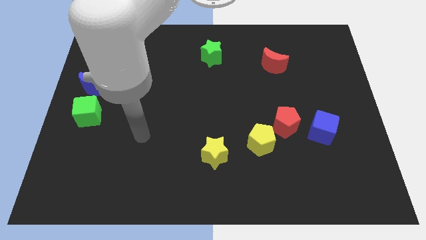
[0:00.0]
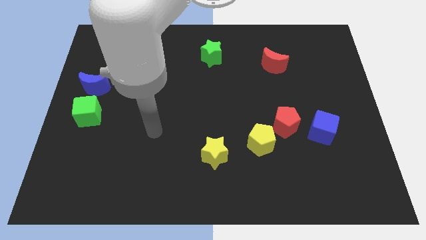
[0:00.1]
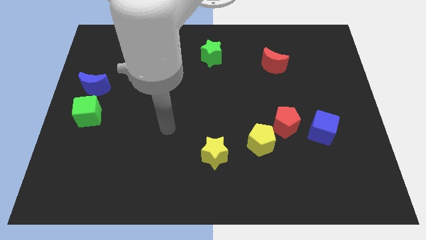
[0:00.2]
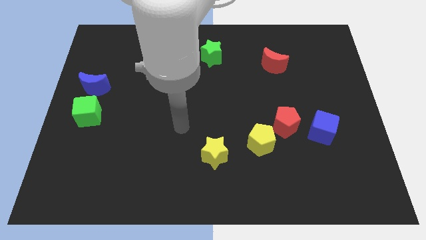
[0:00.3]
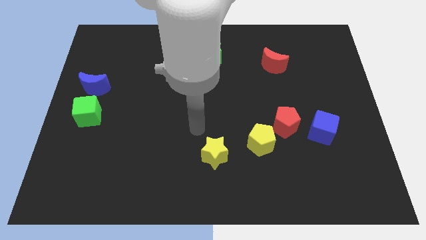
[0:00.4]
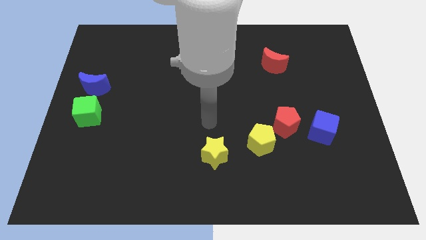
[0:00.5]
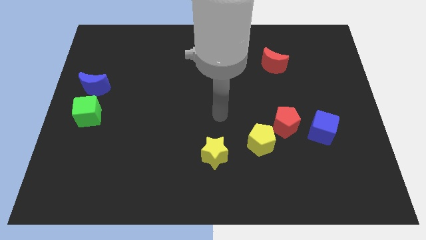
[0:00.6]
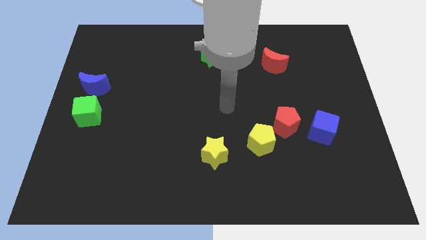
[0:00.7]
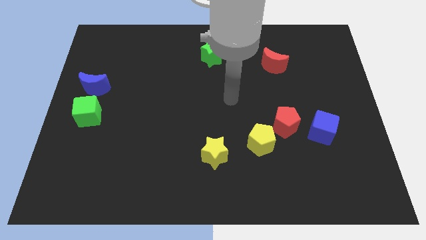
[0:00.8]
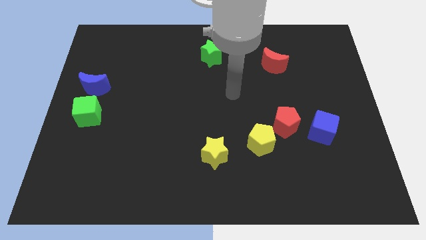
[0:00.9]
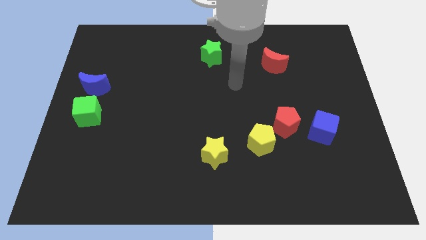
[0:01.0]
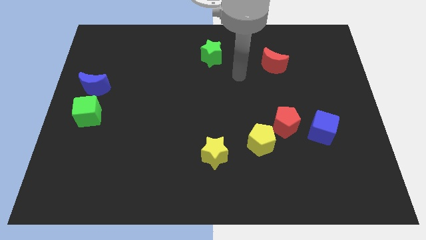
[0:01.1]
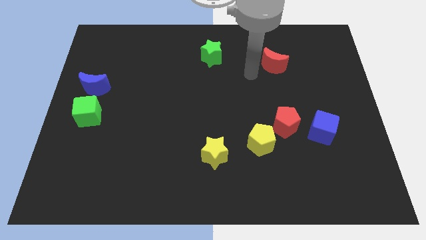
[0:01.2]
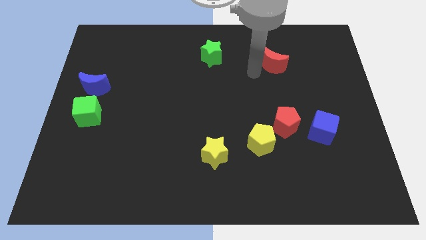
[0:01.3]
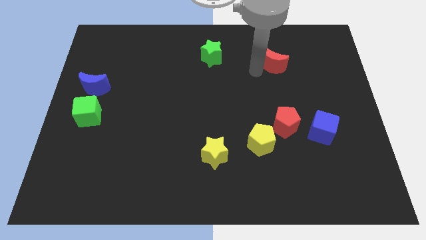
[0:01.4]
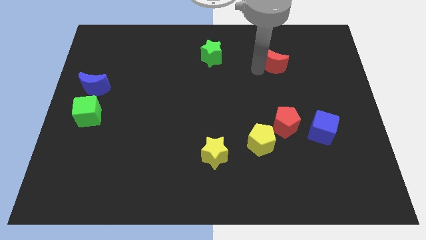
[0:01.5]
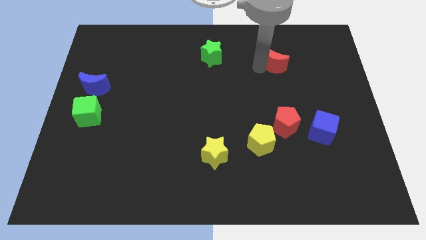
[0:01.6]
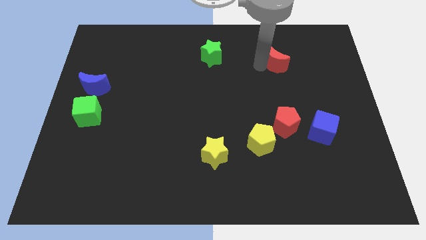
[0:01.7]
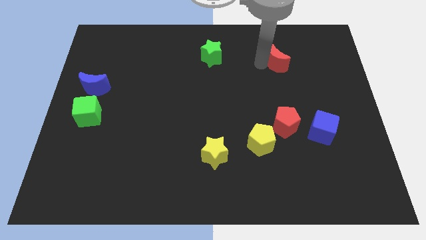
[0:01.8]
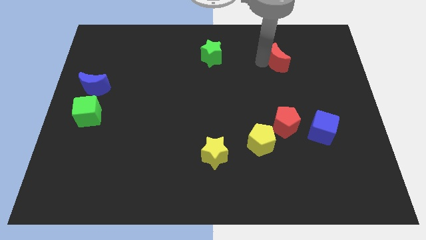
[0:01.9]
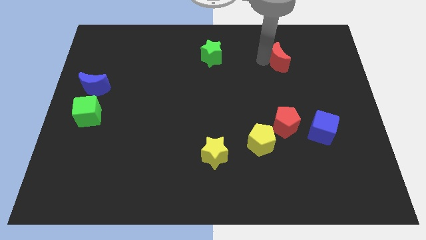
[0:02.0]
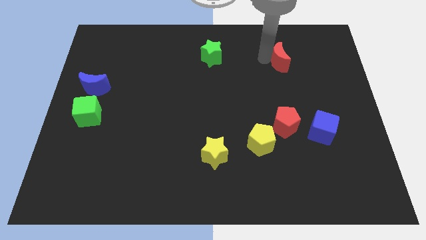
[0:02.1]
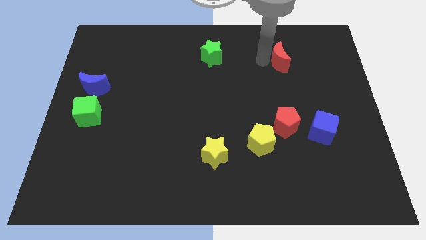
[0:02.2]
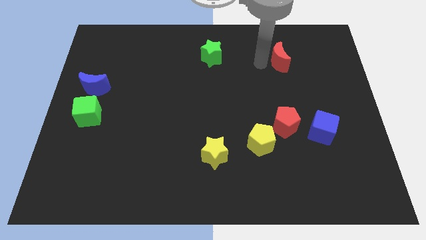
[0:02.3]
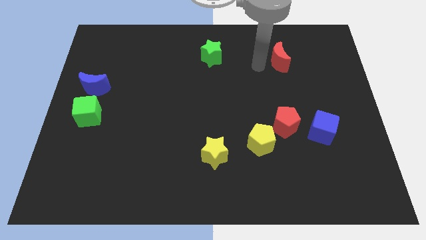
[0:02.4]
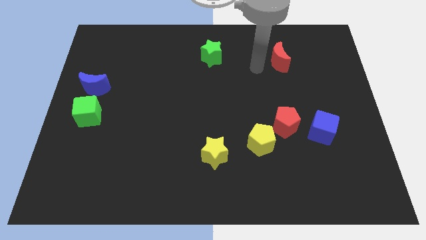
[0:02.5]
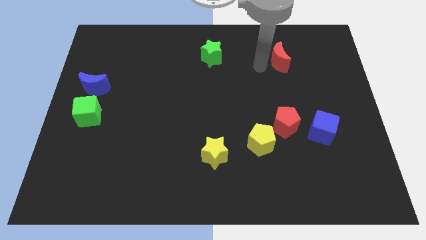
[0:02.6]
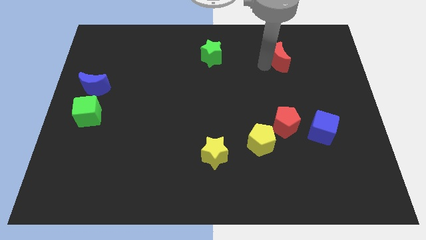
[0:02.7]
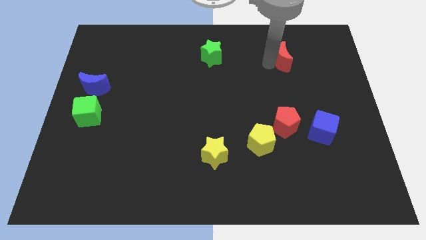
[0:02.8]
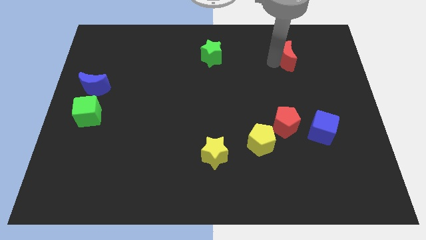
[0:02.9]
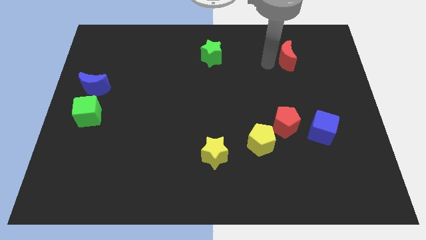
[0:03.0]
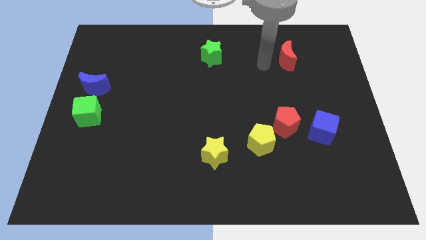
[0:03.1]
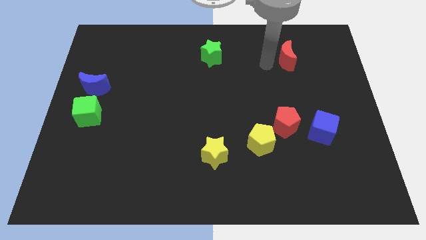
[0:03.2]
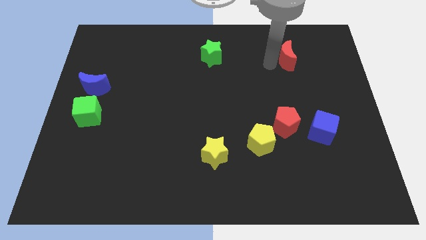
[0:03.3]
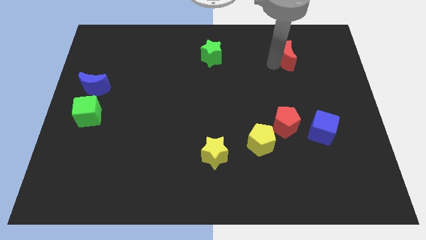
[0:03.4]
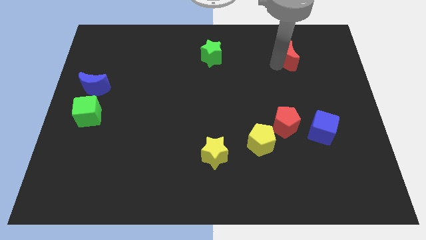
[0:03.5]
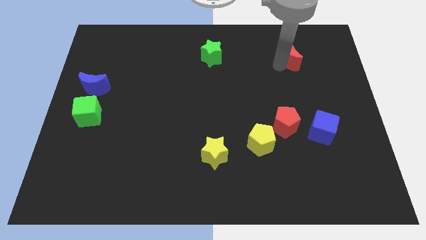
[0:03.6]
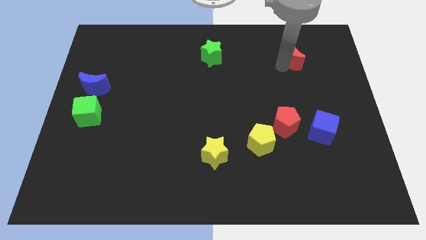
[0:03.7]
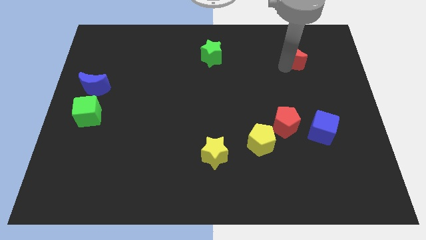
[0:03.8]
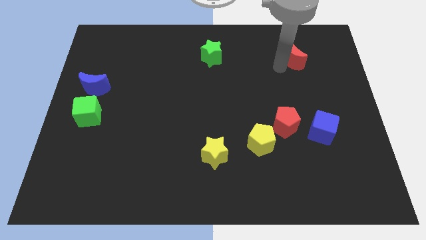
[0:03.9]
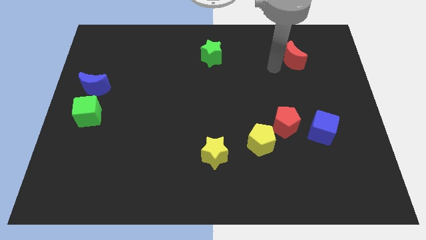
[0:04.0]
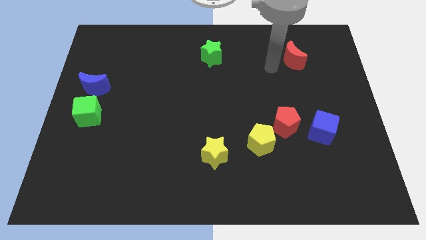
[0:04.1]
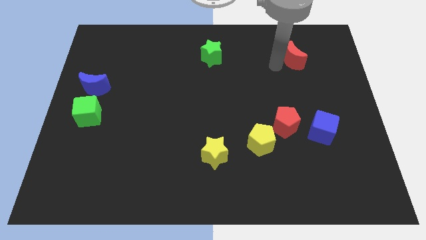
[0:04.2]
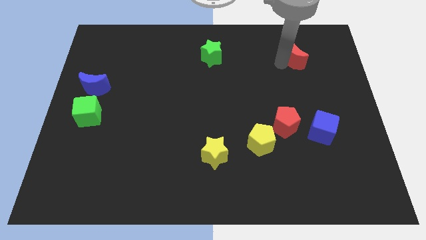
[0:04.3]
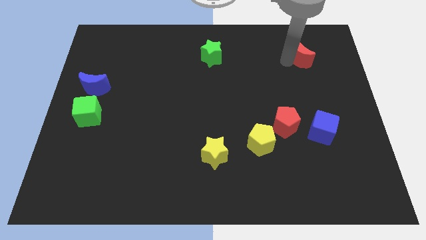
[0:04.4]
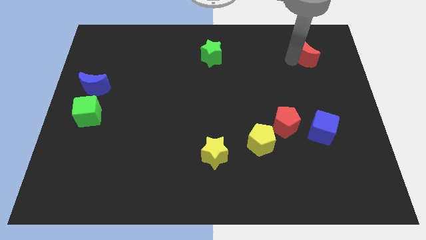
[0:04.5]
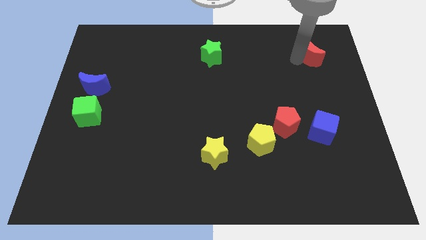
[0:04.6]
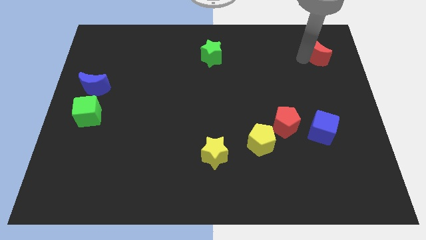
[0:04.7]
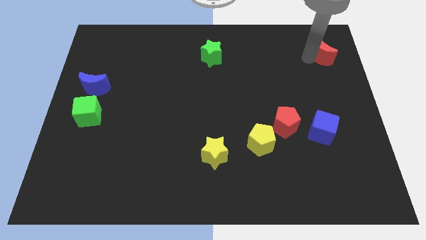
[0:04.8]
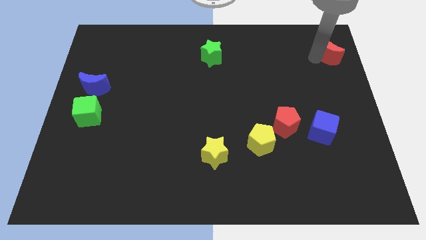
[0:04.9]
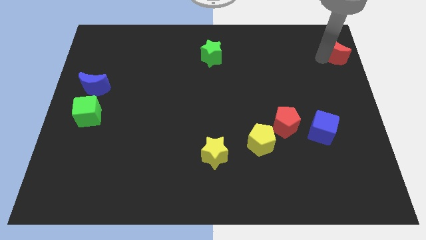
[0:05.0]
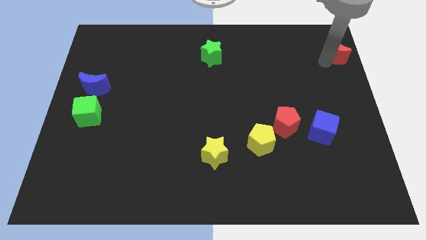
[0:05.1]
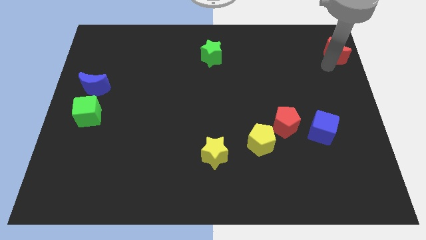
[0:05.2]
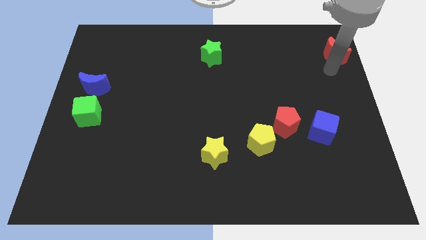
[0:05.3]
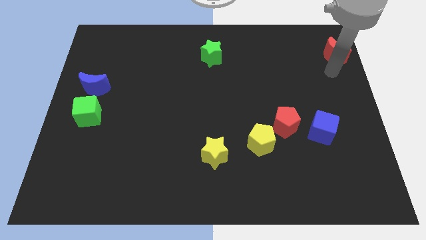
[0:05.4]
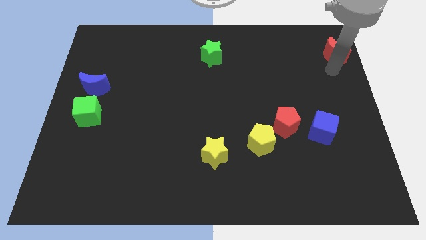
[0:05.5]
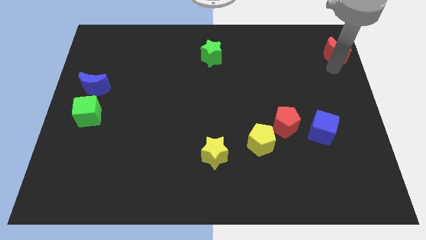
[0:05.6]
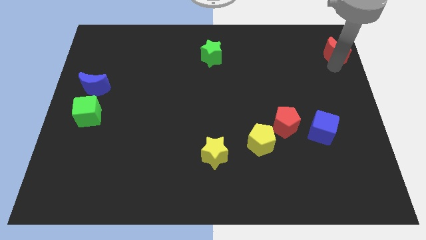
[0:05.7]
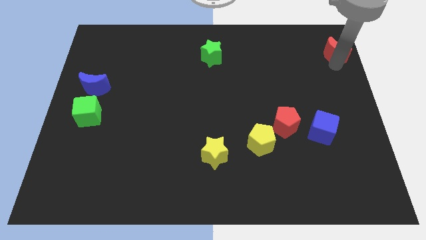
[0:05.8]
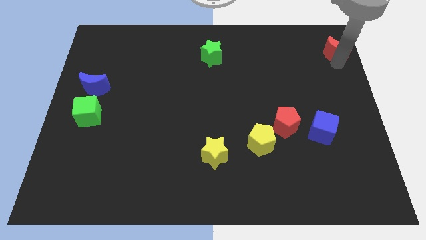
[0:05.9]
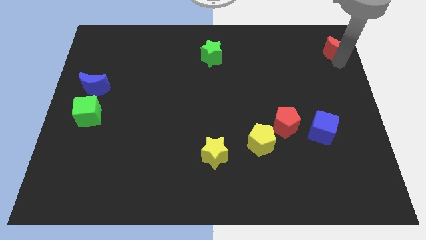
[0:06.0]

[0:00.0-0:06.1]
move the red moon to the top right corner
